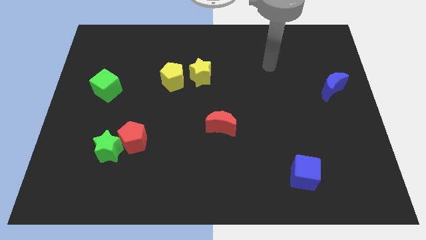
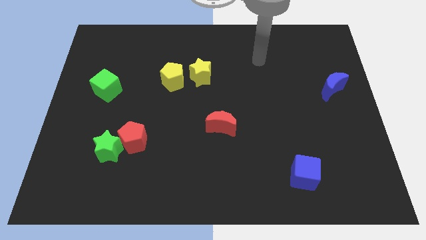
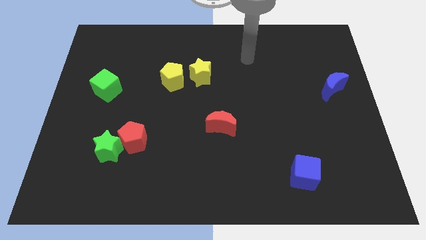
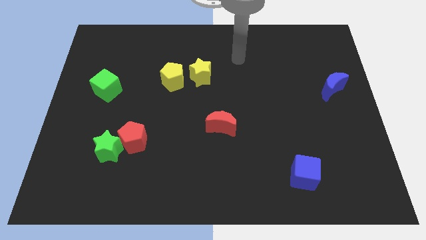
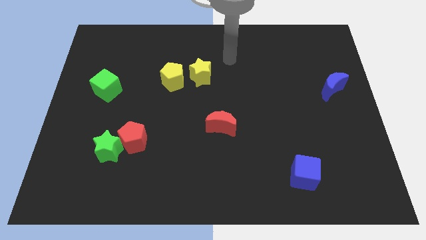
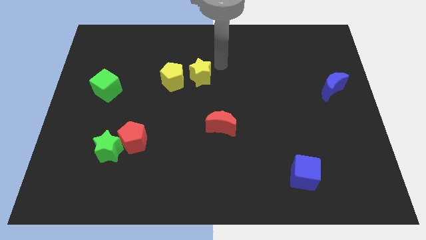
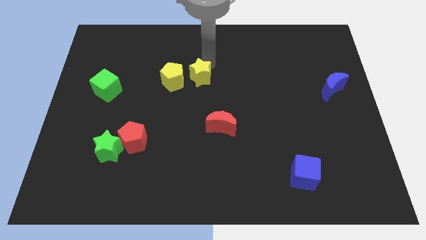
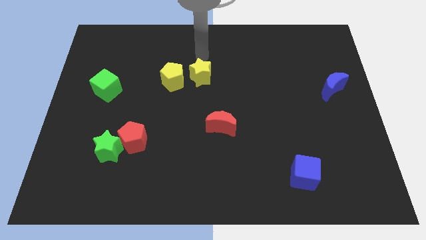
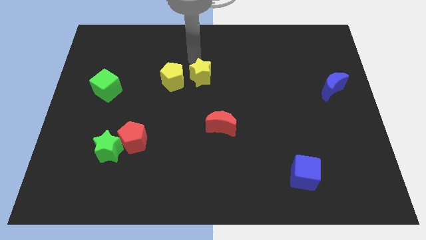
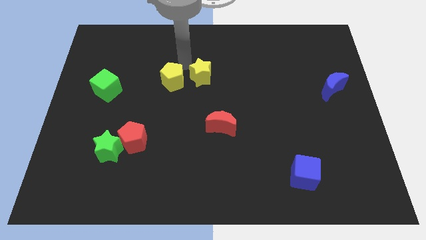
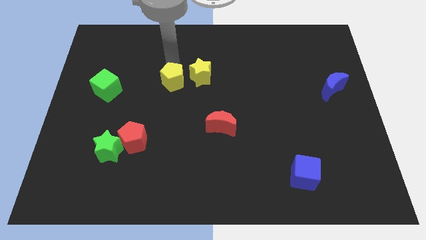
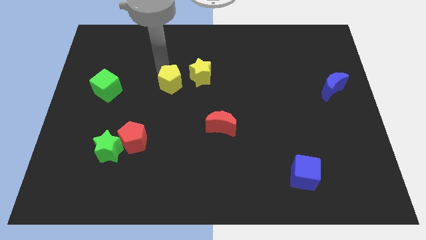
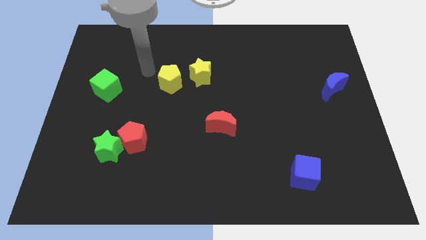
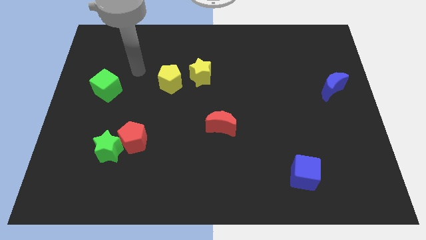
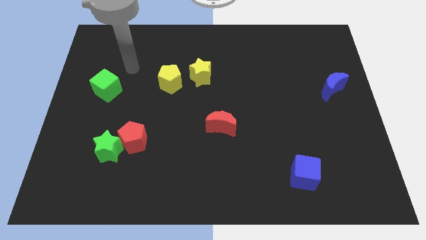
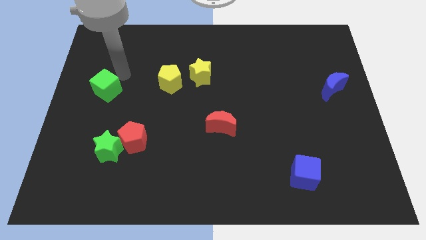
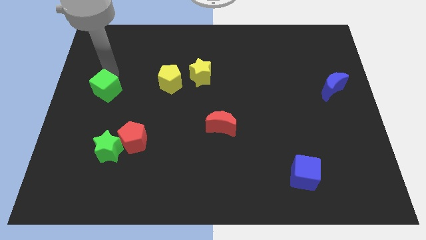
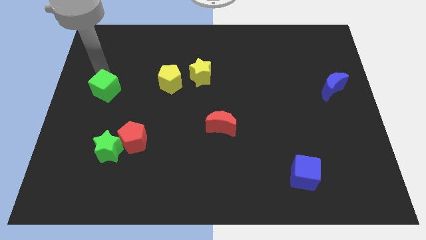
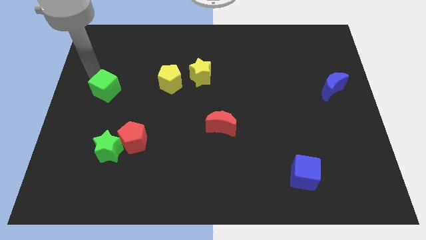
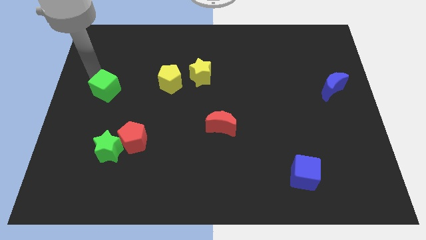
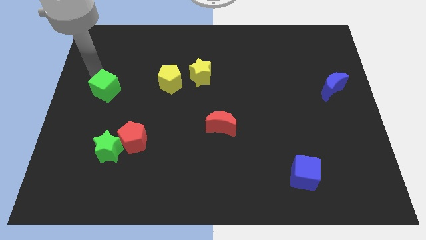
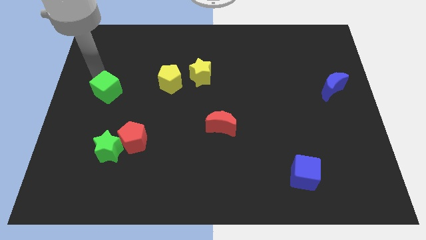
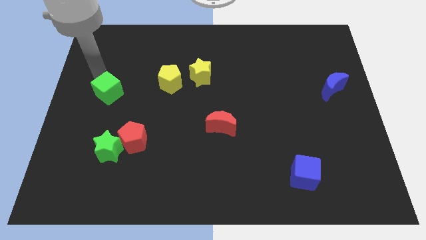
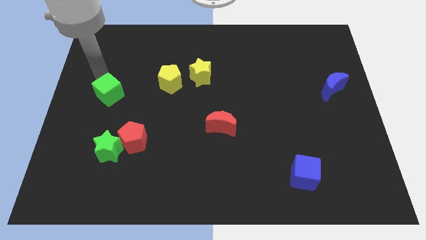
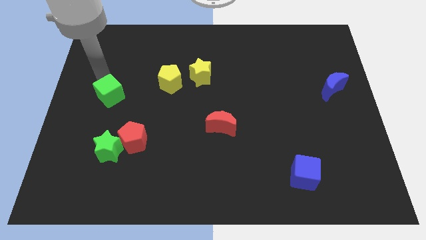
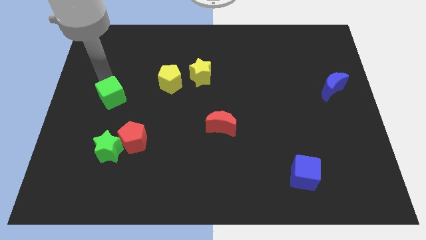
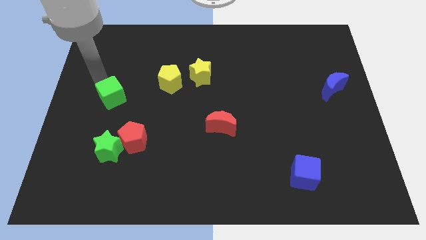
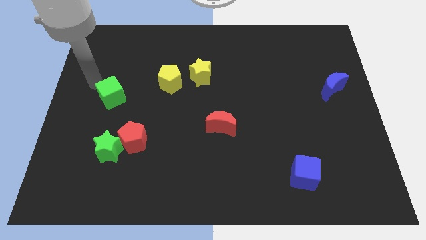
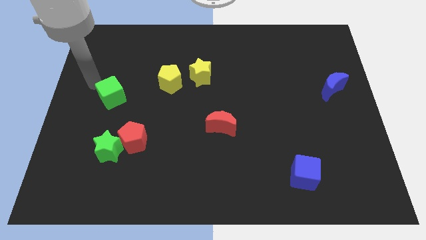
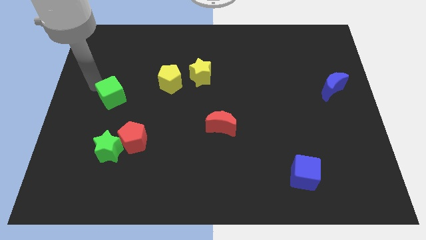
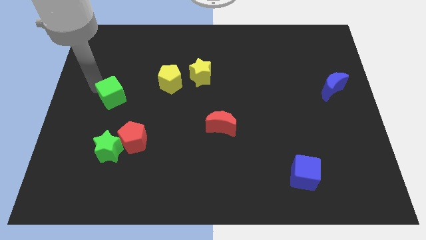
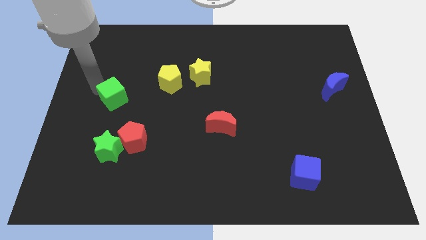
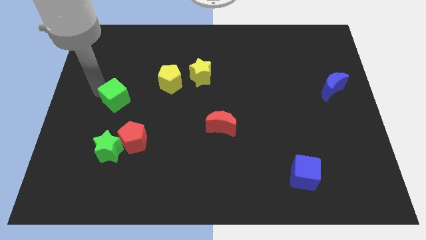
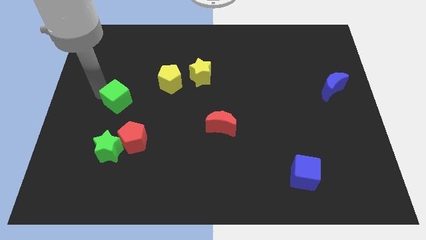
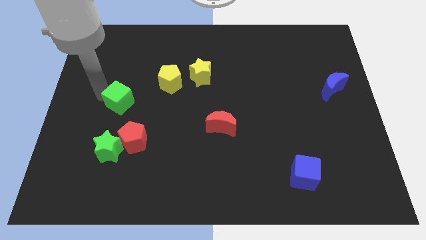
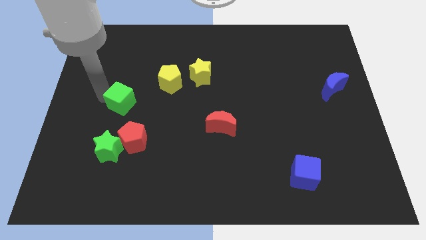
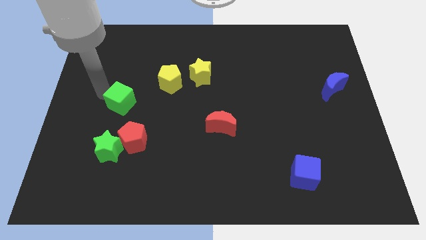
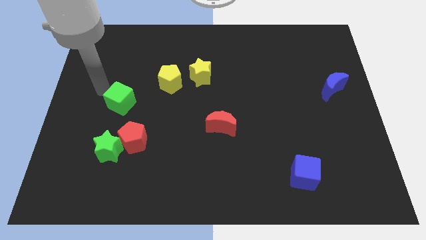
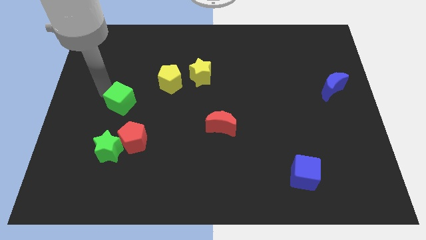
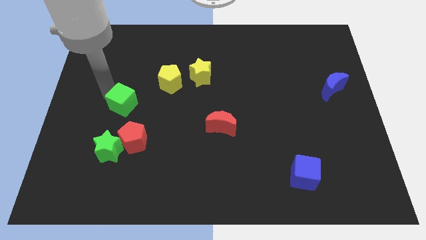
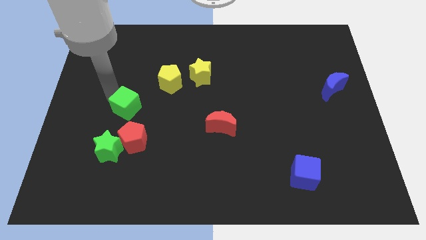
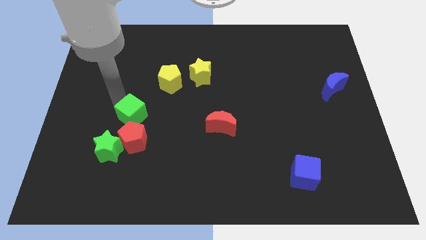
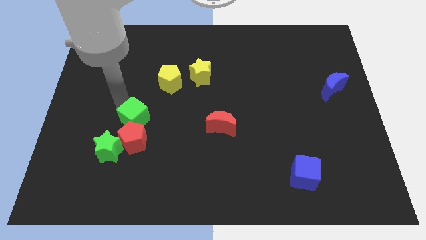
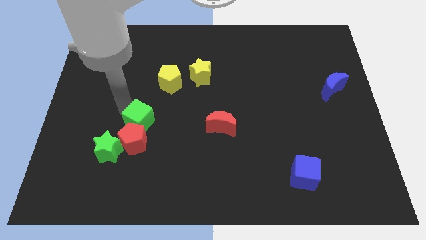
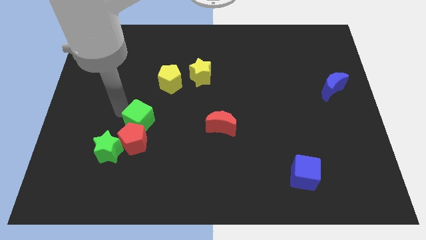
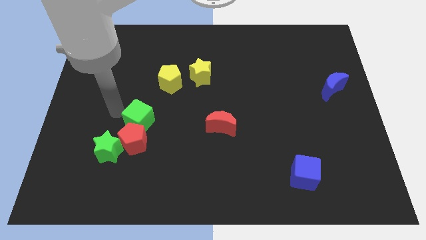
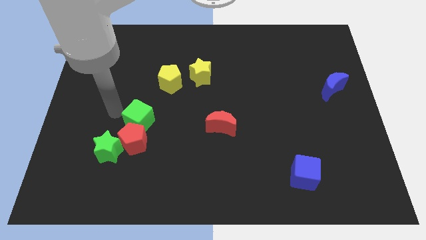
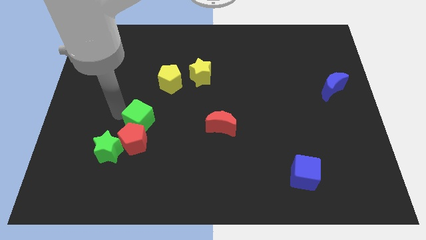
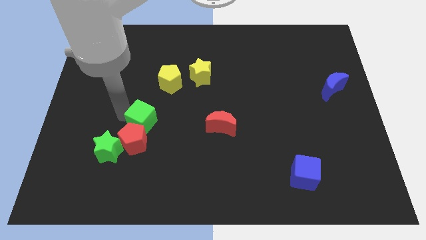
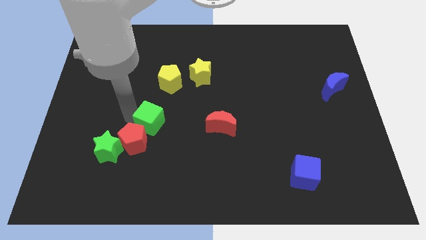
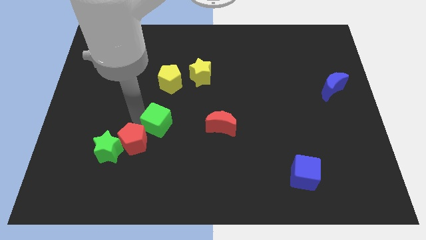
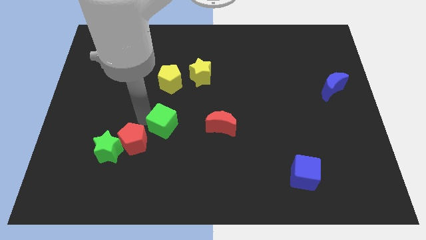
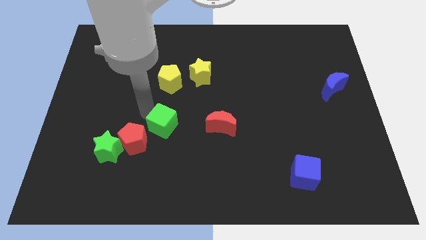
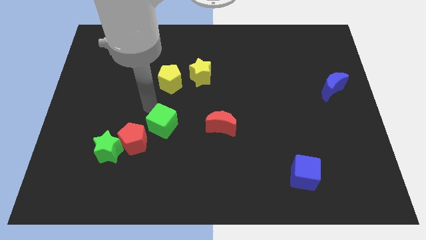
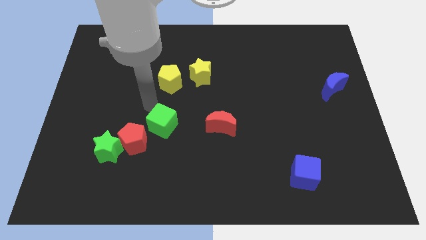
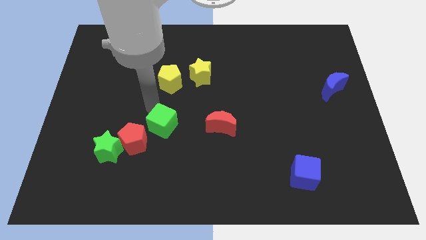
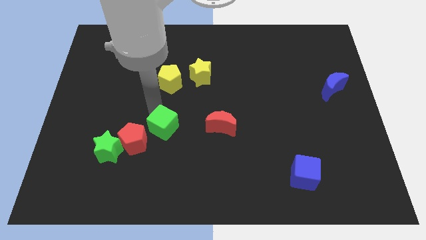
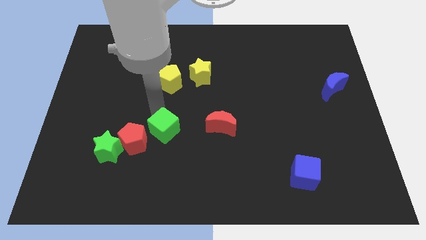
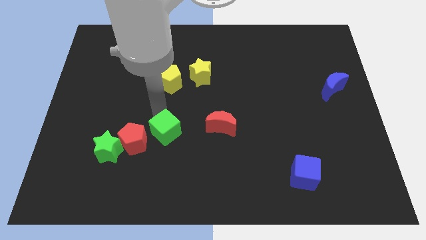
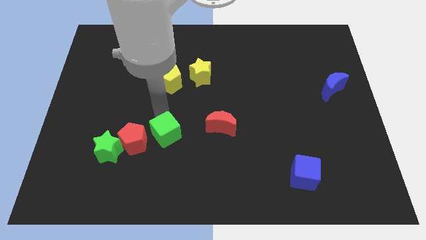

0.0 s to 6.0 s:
slide the green cube downwards and right diagonally

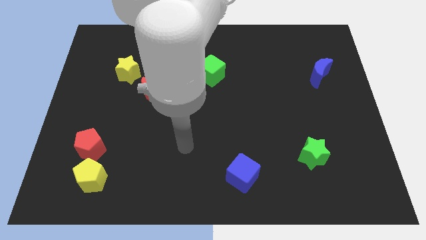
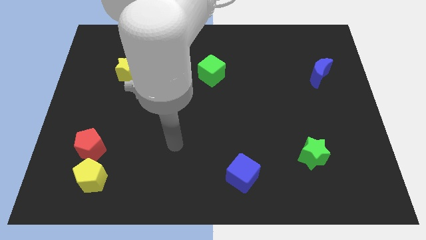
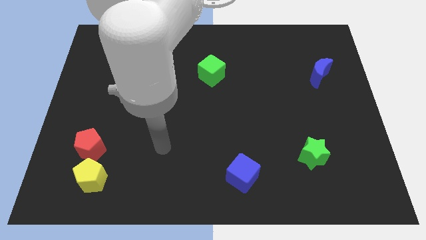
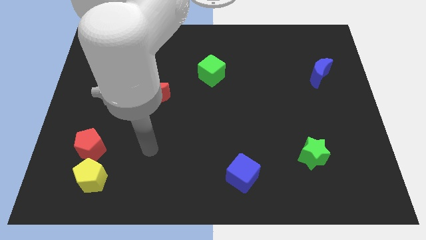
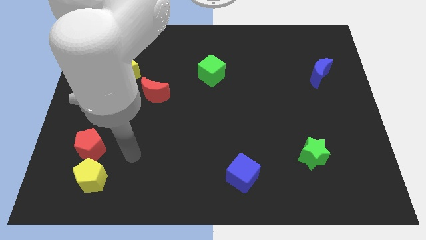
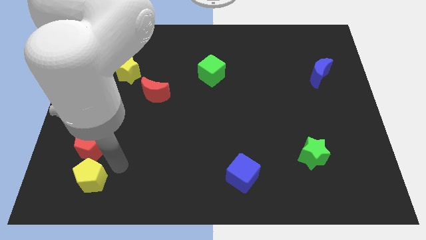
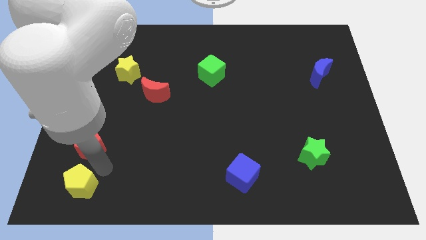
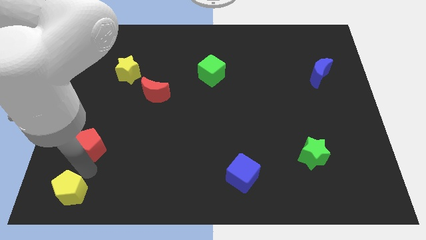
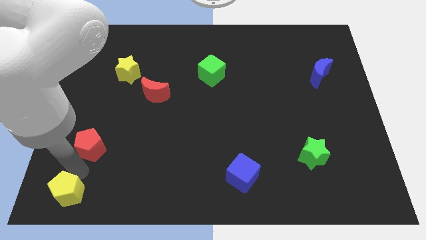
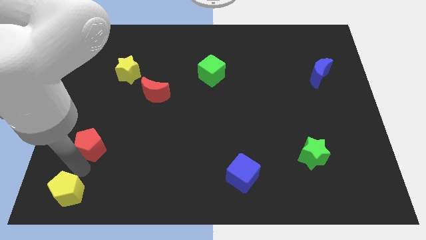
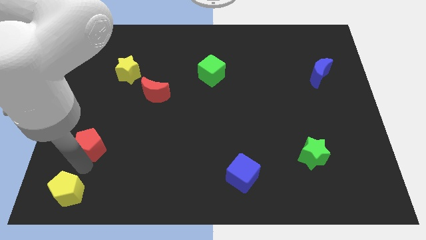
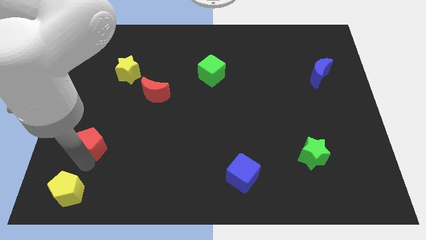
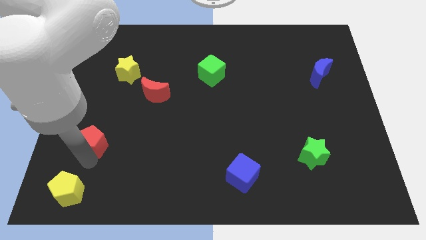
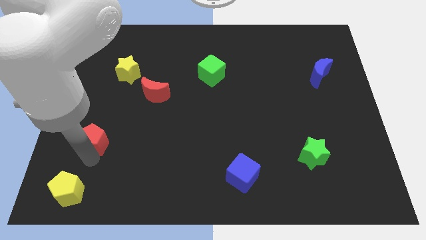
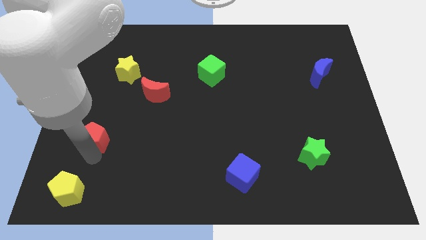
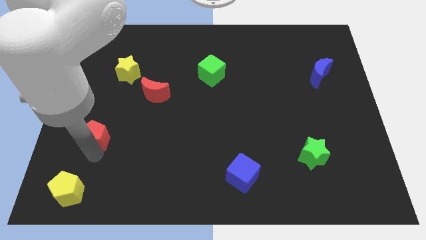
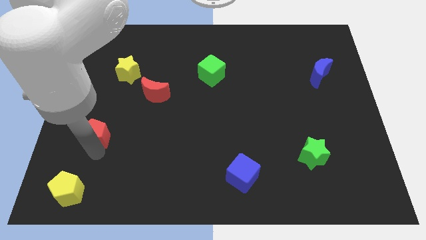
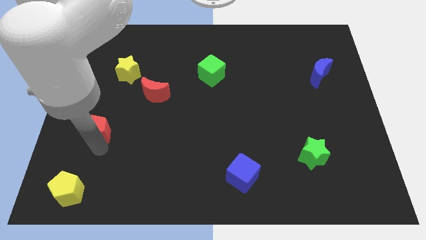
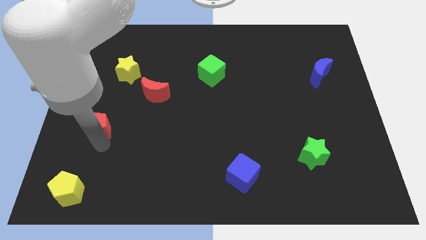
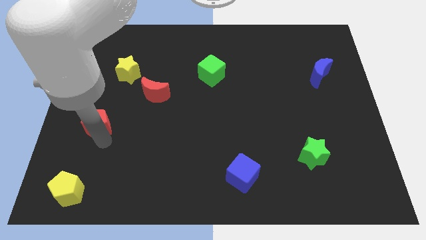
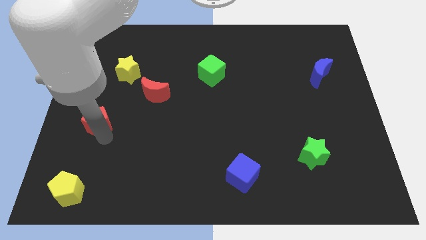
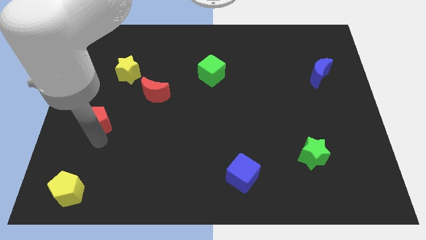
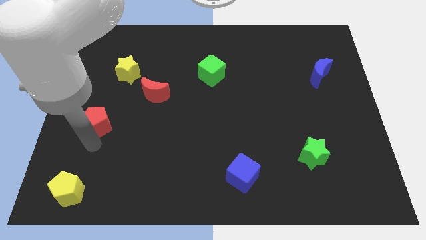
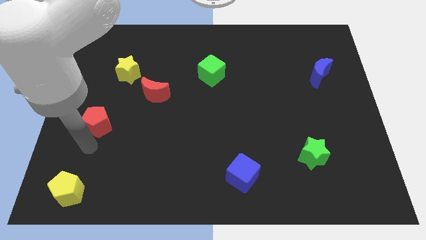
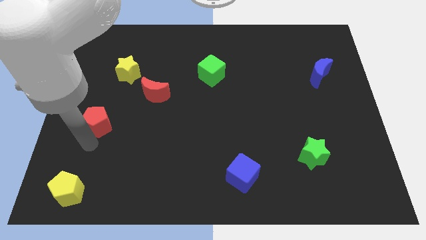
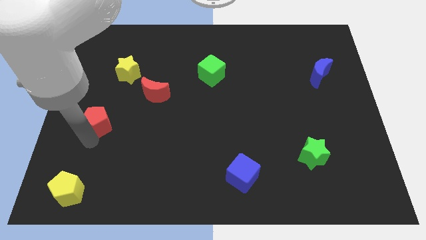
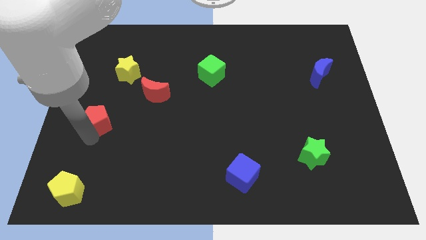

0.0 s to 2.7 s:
slide the red pentagon upwards somewhat
